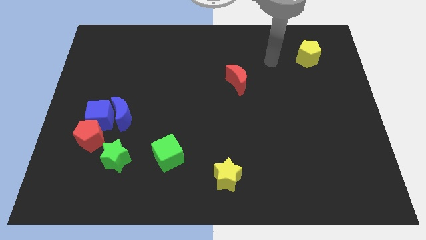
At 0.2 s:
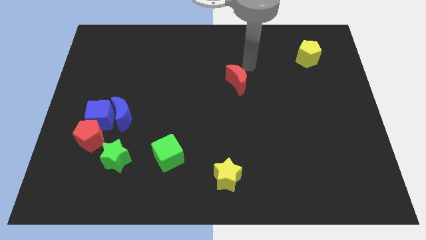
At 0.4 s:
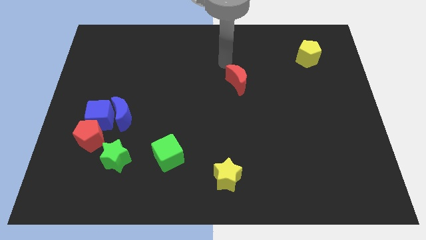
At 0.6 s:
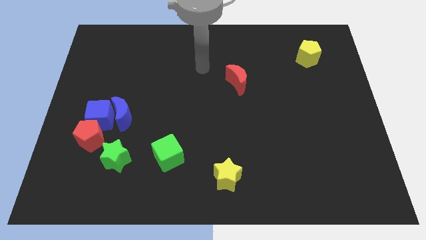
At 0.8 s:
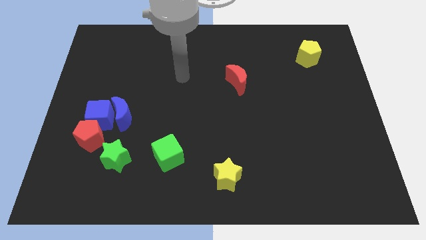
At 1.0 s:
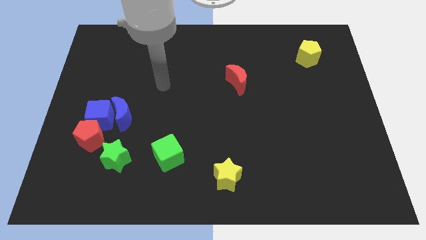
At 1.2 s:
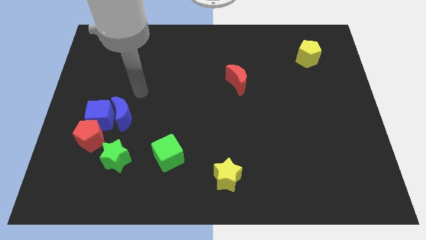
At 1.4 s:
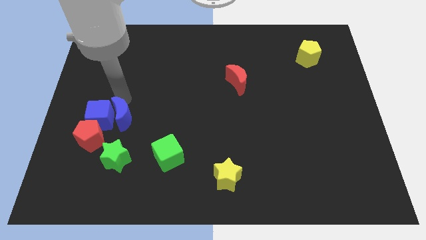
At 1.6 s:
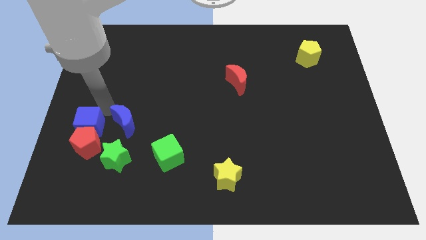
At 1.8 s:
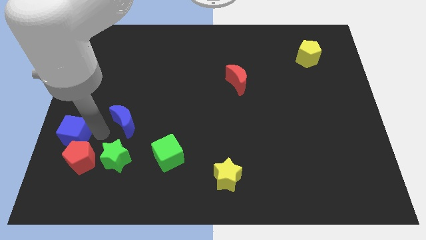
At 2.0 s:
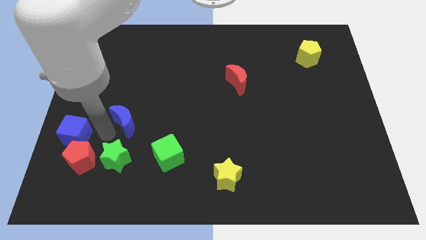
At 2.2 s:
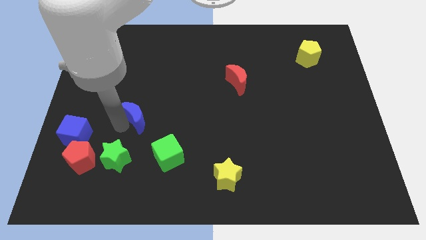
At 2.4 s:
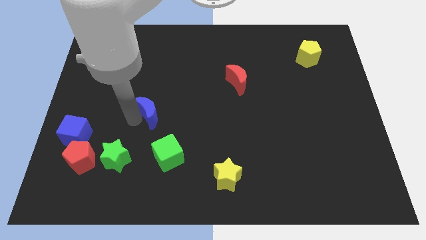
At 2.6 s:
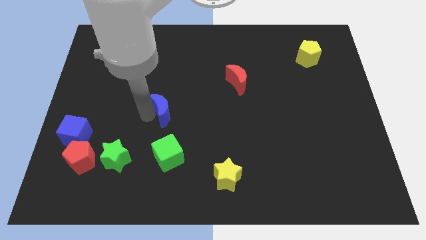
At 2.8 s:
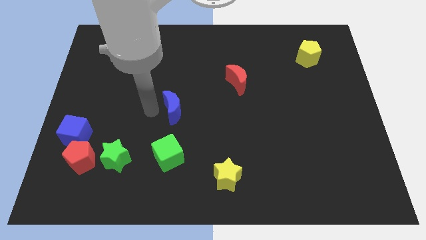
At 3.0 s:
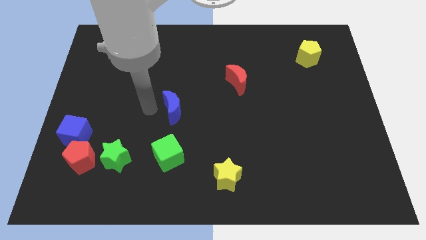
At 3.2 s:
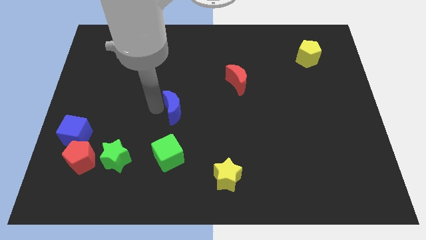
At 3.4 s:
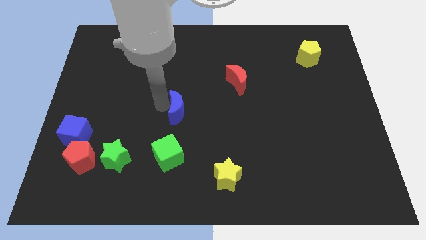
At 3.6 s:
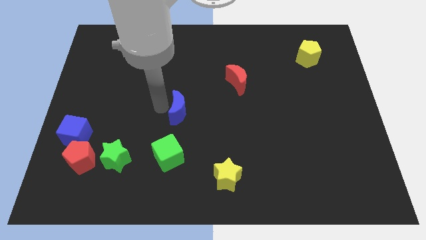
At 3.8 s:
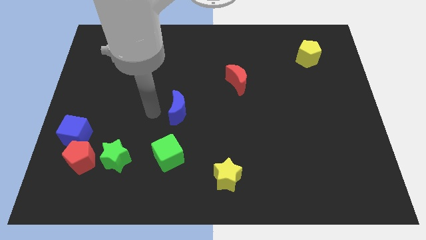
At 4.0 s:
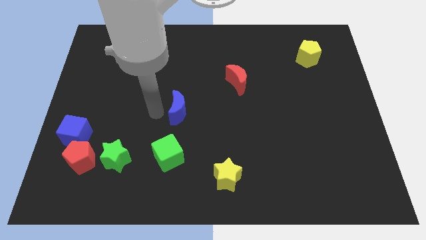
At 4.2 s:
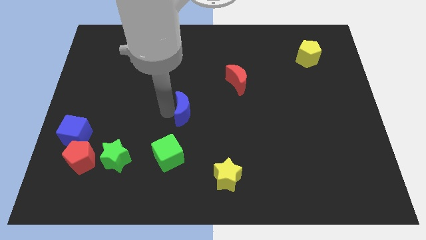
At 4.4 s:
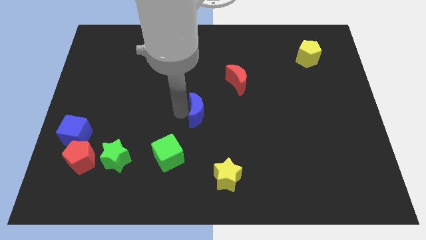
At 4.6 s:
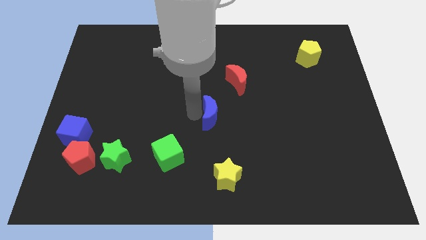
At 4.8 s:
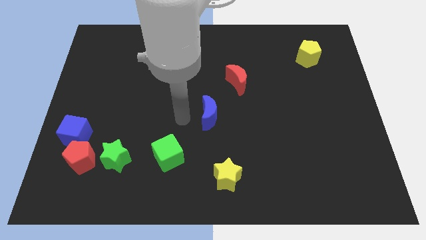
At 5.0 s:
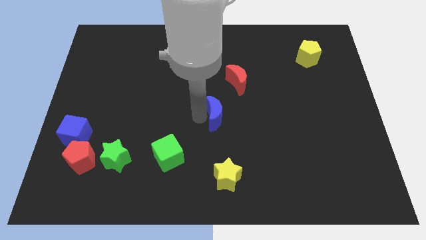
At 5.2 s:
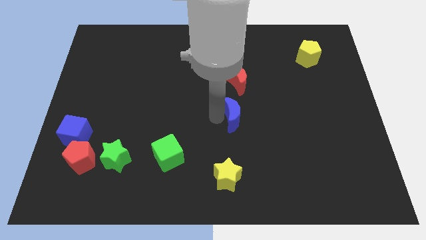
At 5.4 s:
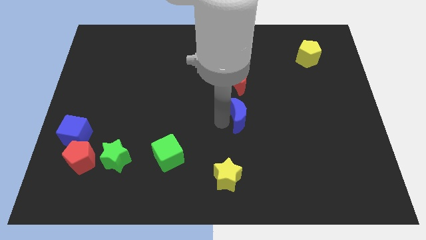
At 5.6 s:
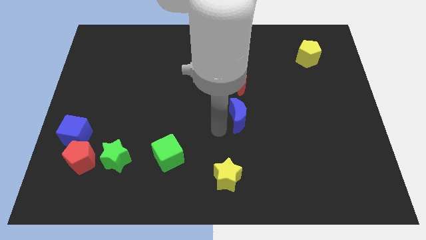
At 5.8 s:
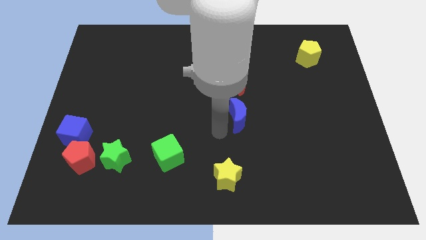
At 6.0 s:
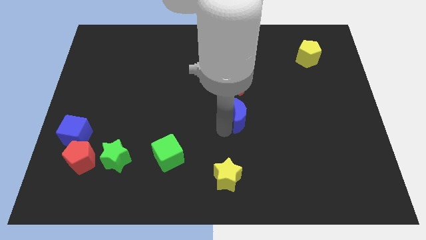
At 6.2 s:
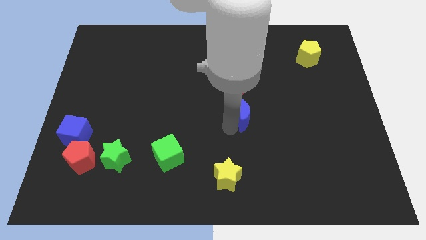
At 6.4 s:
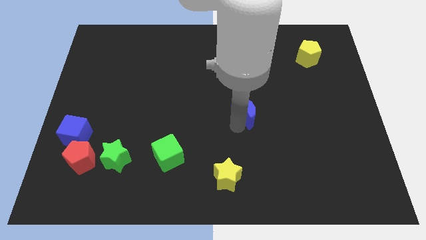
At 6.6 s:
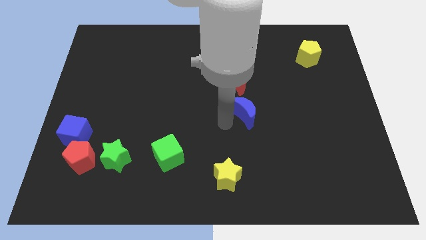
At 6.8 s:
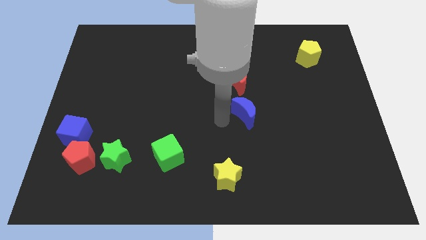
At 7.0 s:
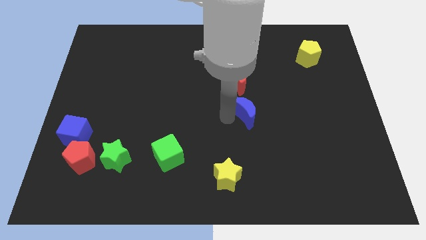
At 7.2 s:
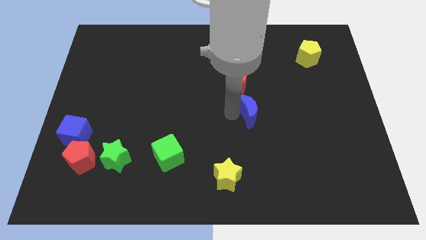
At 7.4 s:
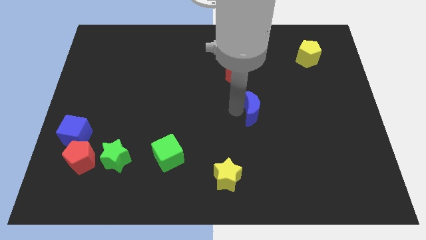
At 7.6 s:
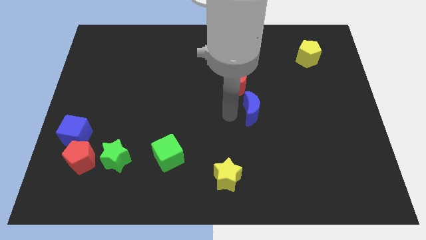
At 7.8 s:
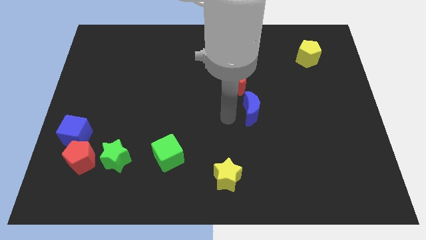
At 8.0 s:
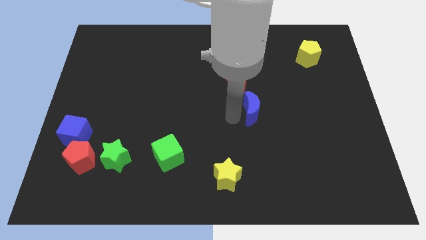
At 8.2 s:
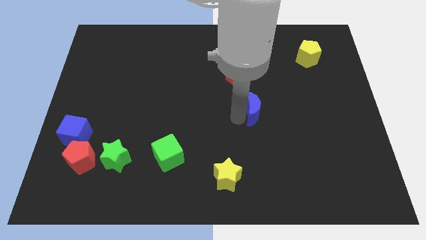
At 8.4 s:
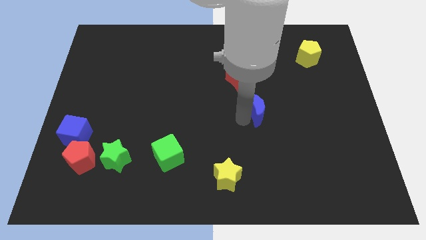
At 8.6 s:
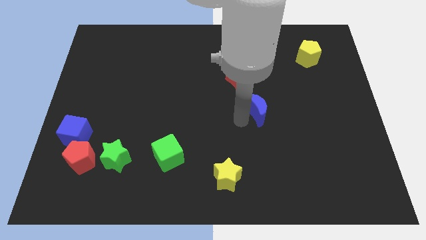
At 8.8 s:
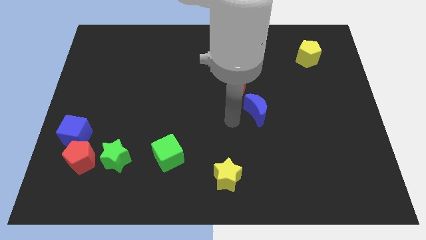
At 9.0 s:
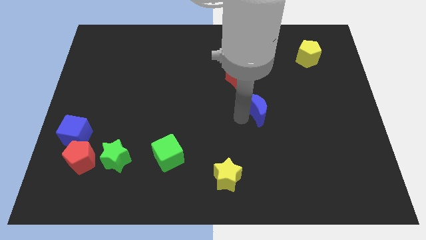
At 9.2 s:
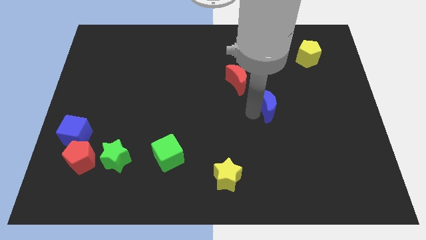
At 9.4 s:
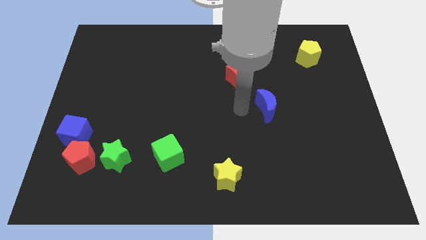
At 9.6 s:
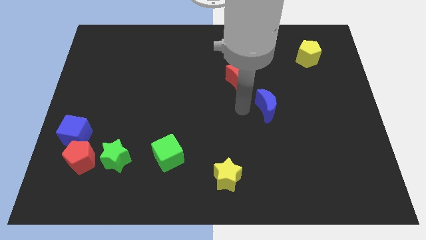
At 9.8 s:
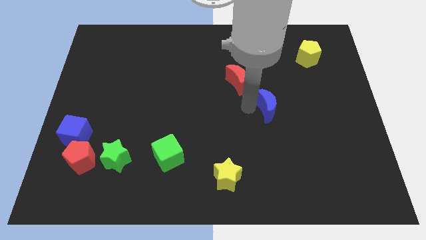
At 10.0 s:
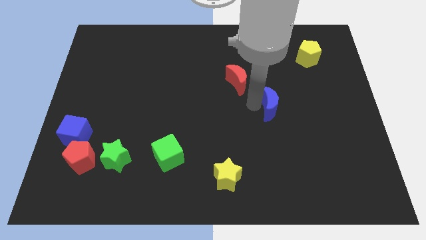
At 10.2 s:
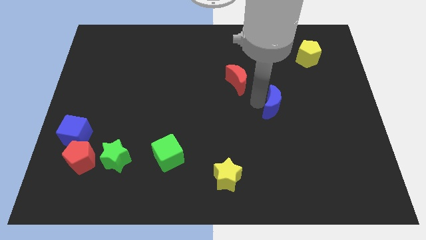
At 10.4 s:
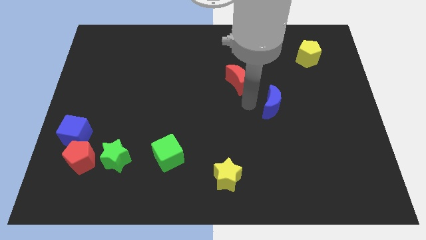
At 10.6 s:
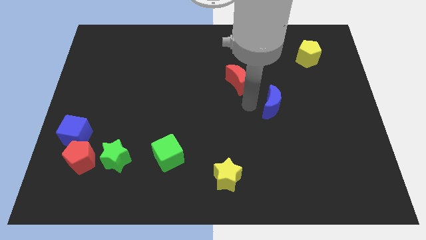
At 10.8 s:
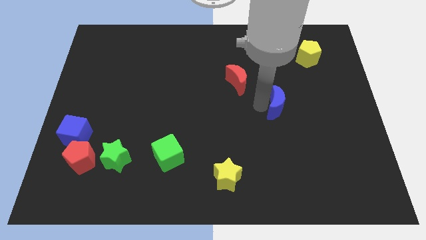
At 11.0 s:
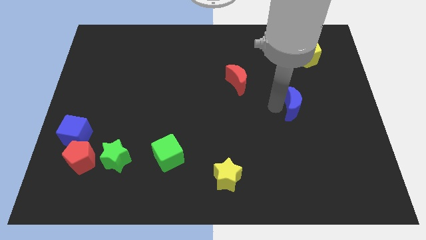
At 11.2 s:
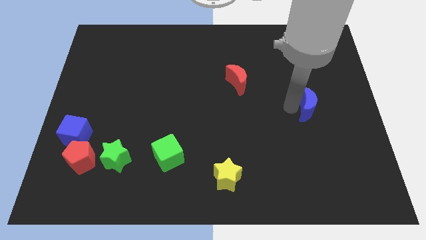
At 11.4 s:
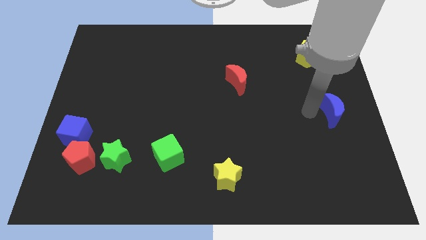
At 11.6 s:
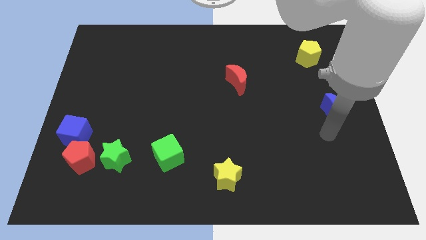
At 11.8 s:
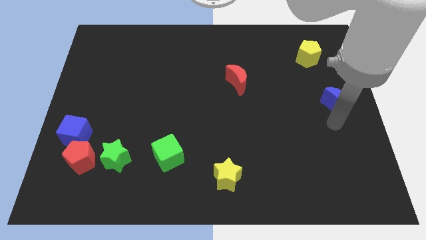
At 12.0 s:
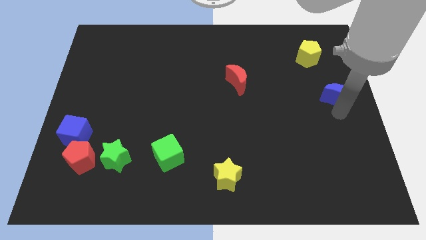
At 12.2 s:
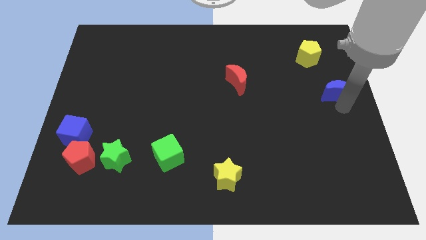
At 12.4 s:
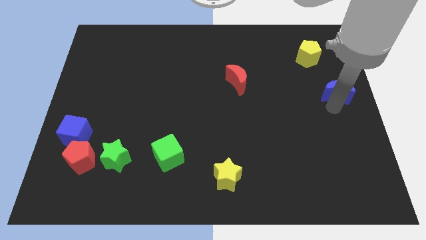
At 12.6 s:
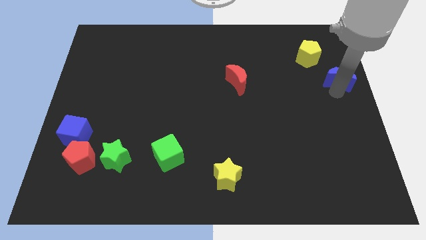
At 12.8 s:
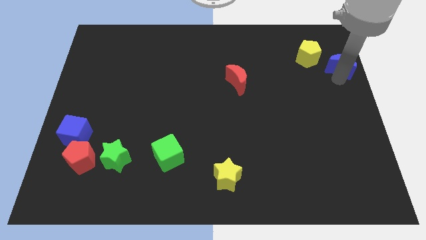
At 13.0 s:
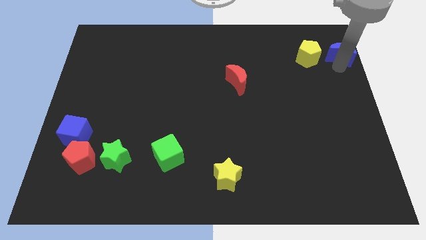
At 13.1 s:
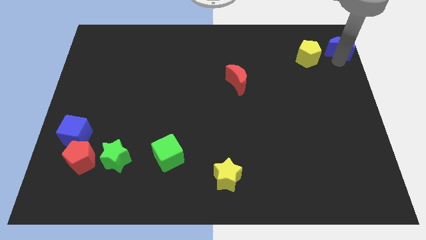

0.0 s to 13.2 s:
put the blue moon to the top right corner

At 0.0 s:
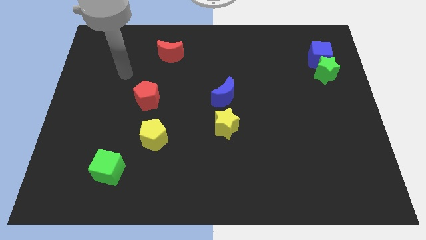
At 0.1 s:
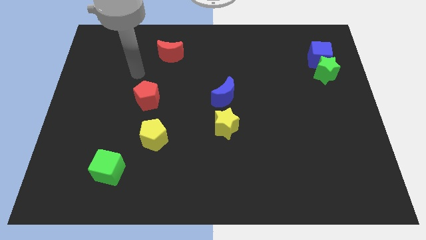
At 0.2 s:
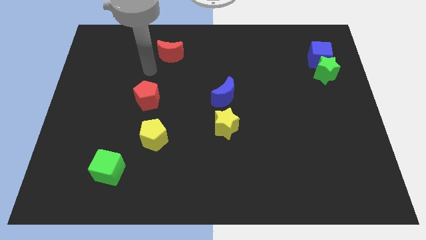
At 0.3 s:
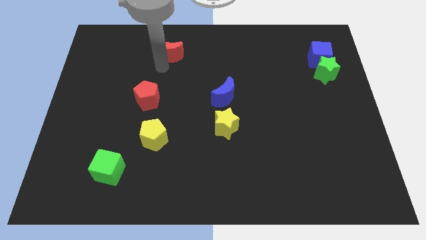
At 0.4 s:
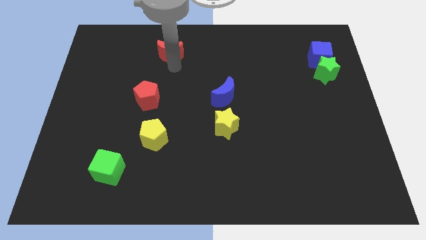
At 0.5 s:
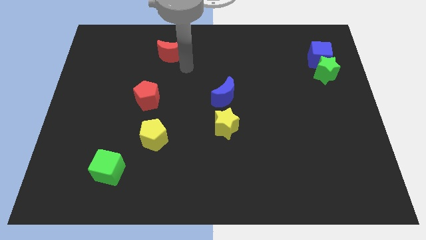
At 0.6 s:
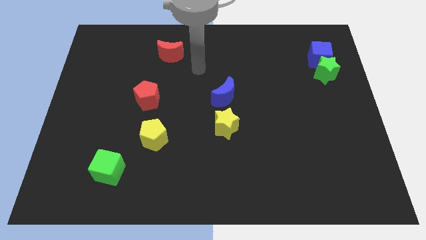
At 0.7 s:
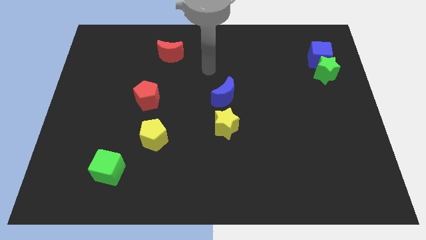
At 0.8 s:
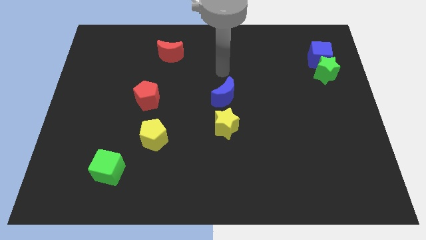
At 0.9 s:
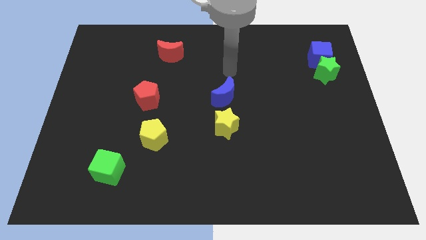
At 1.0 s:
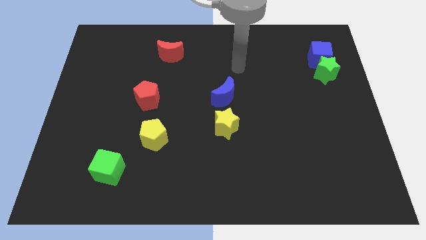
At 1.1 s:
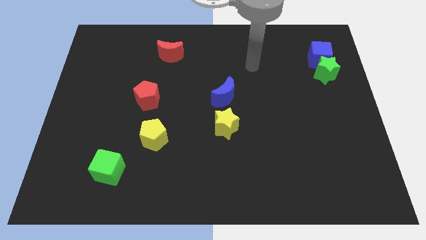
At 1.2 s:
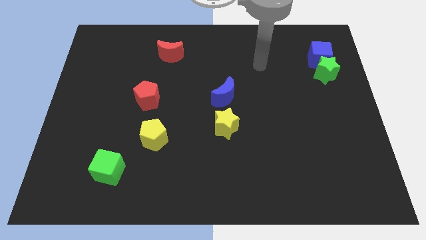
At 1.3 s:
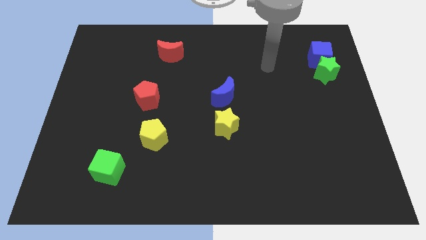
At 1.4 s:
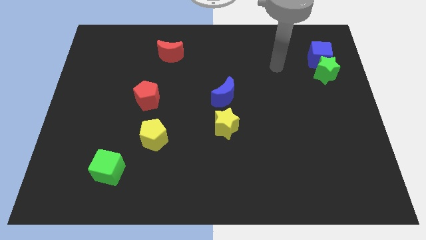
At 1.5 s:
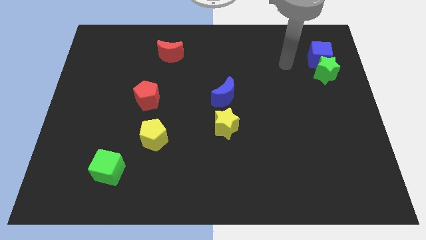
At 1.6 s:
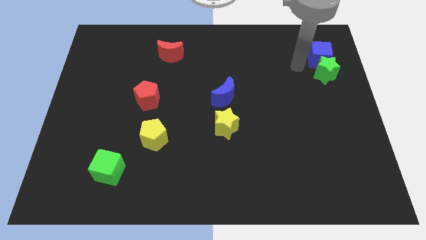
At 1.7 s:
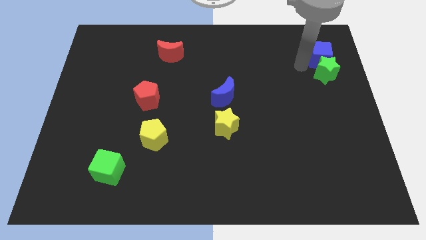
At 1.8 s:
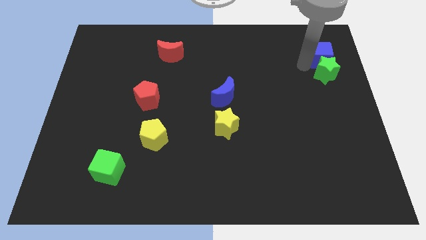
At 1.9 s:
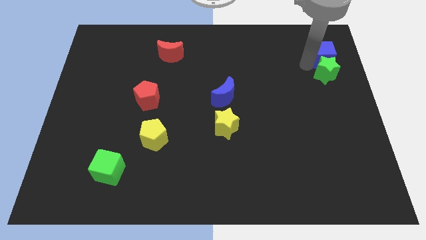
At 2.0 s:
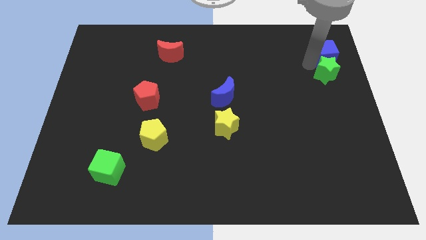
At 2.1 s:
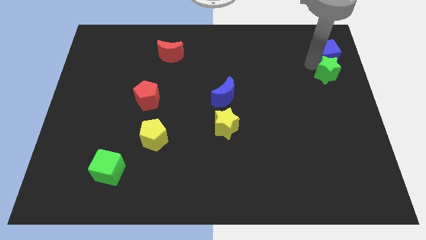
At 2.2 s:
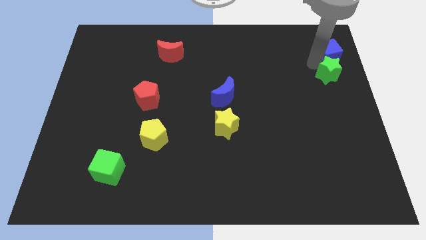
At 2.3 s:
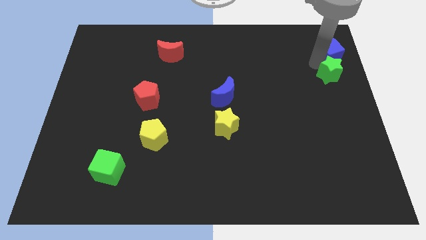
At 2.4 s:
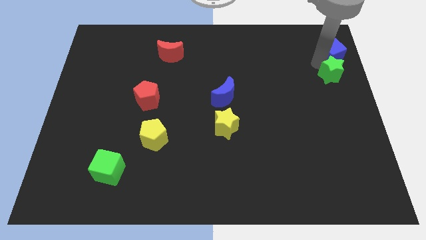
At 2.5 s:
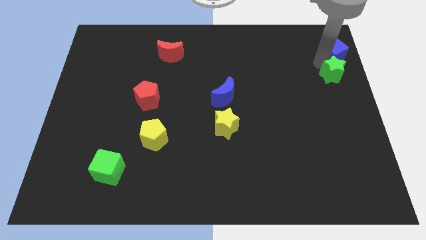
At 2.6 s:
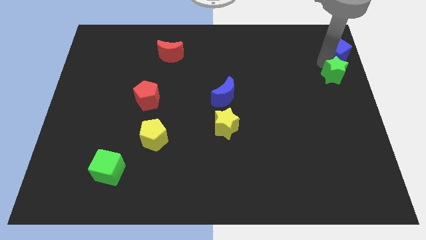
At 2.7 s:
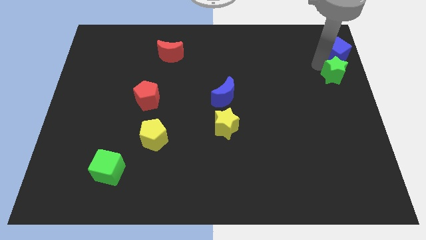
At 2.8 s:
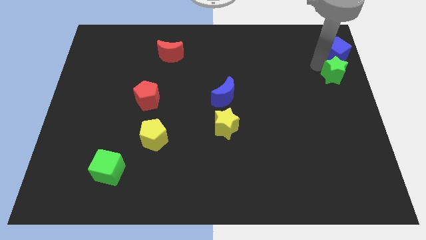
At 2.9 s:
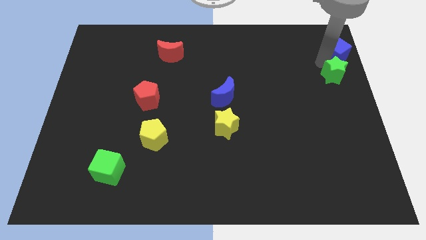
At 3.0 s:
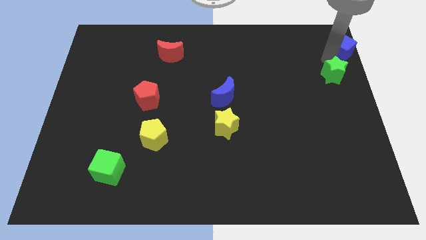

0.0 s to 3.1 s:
put the blue cube to the top right of the board
